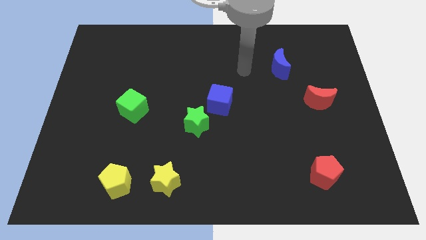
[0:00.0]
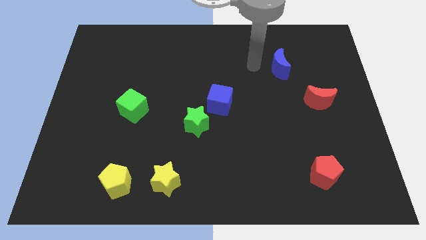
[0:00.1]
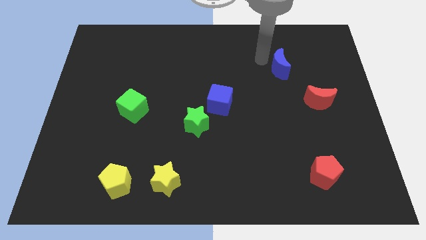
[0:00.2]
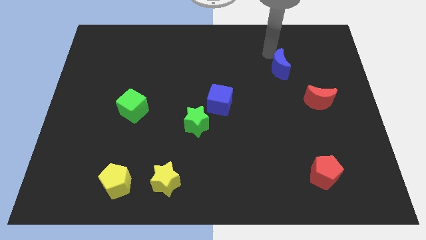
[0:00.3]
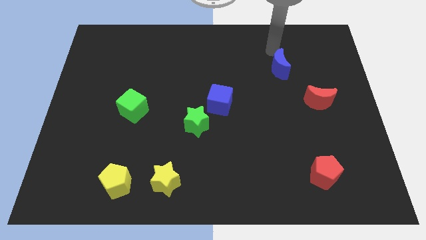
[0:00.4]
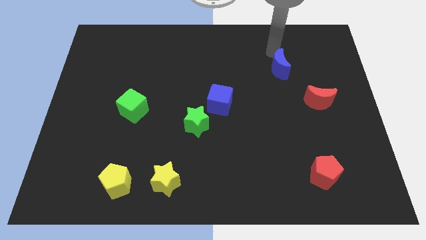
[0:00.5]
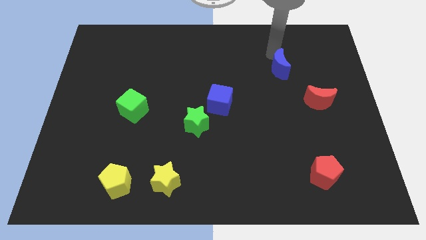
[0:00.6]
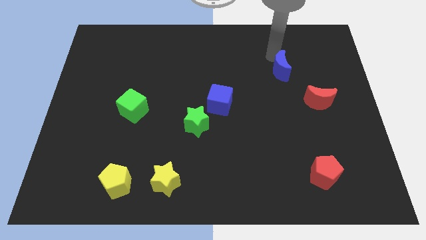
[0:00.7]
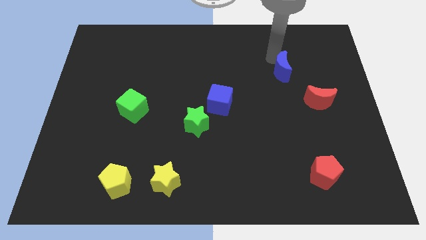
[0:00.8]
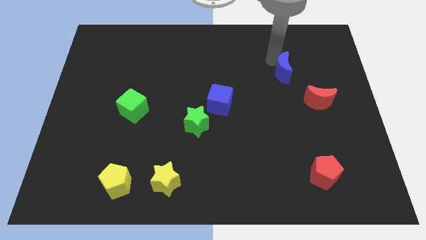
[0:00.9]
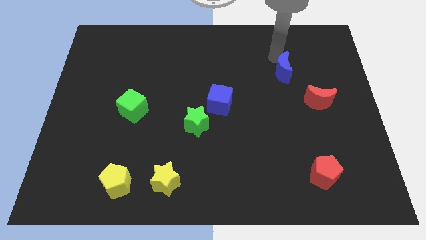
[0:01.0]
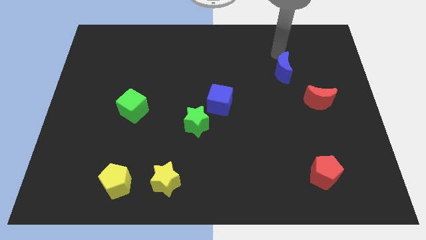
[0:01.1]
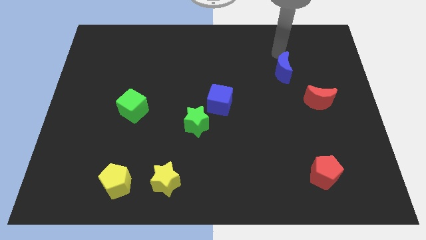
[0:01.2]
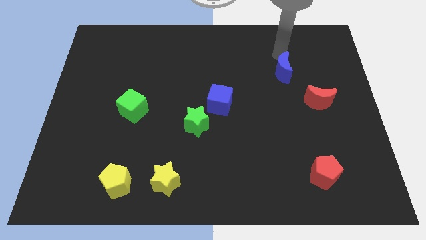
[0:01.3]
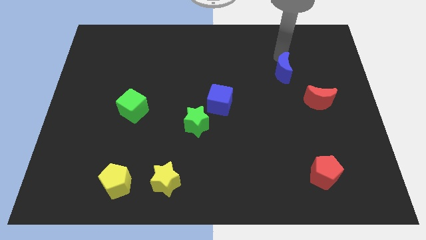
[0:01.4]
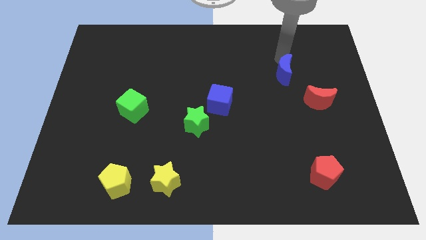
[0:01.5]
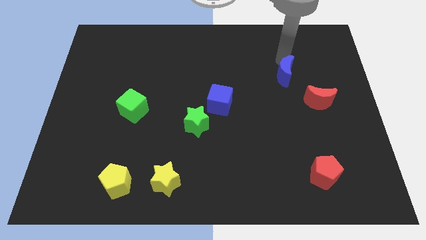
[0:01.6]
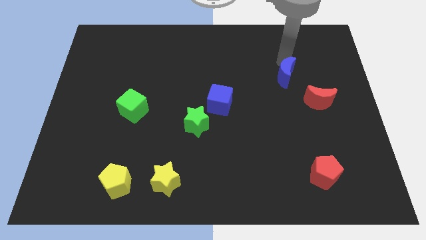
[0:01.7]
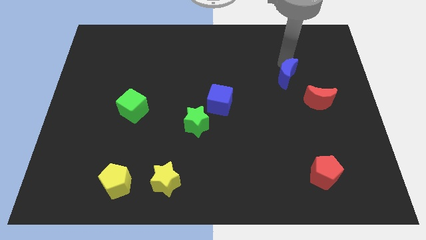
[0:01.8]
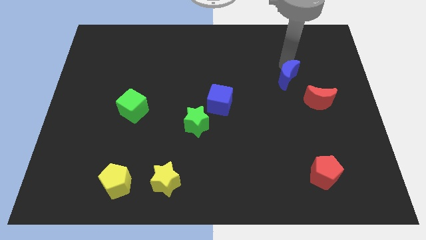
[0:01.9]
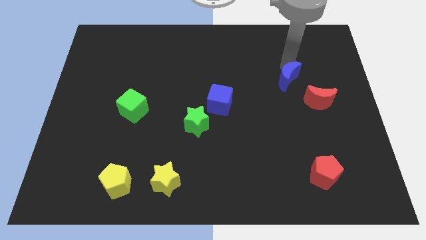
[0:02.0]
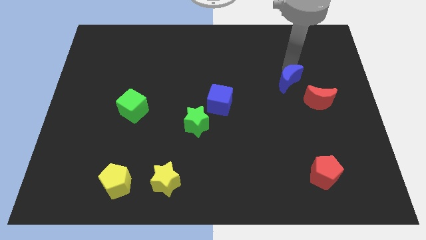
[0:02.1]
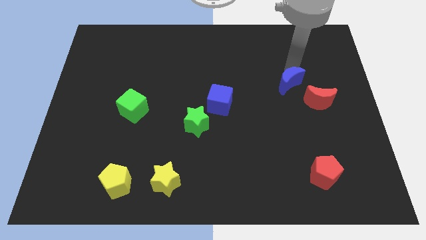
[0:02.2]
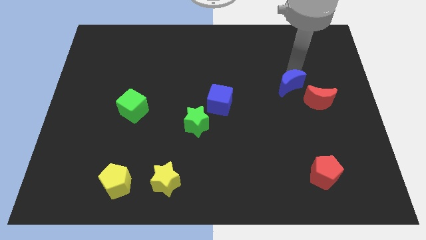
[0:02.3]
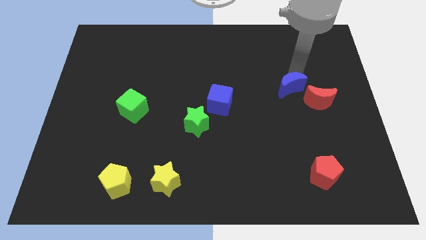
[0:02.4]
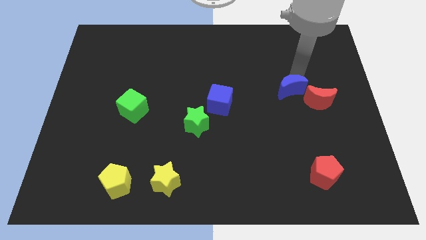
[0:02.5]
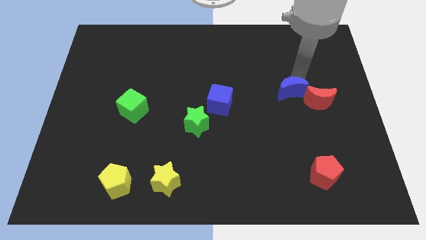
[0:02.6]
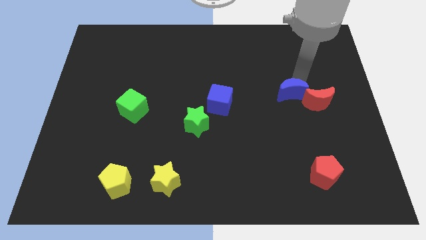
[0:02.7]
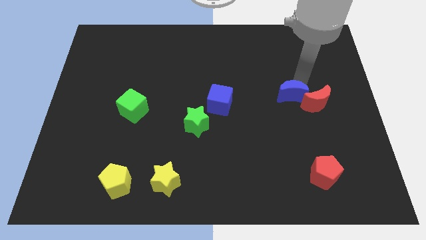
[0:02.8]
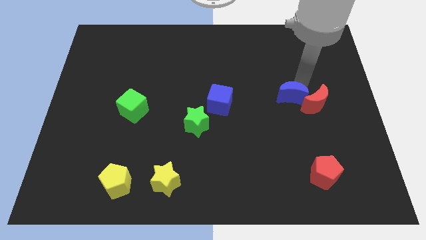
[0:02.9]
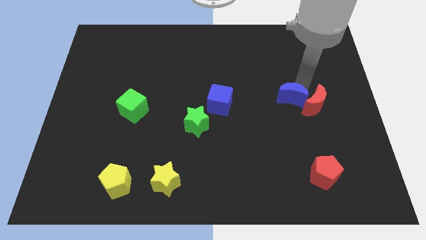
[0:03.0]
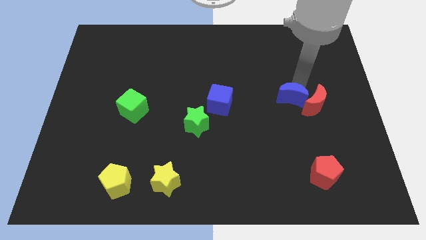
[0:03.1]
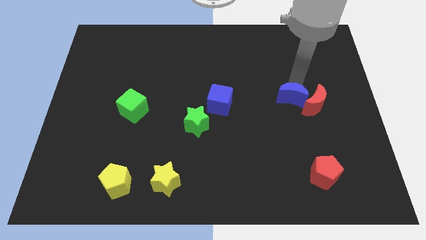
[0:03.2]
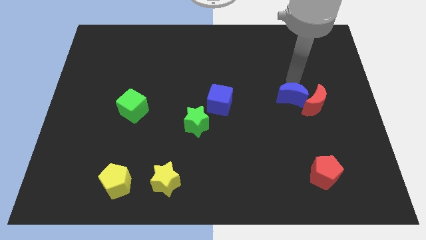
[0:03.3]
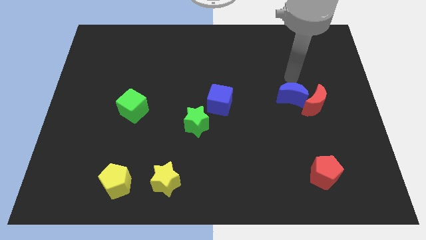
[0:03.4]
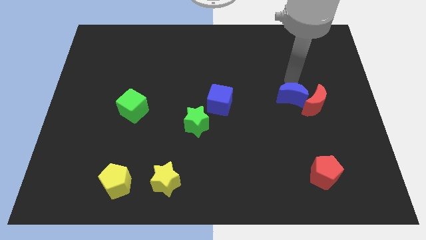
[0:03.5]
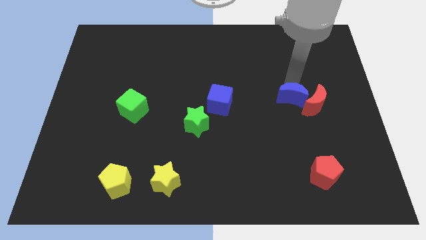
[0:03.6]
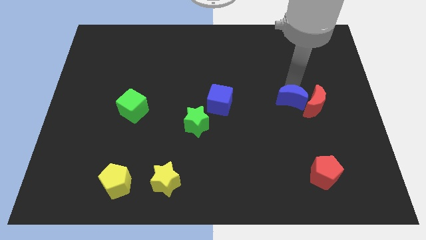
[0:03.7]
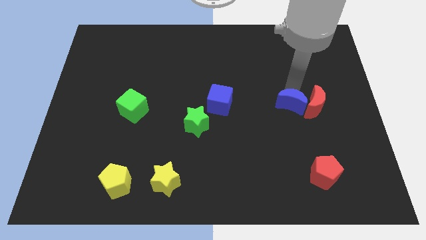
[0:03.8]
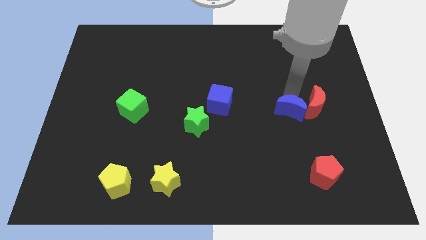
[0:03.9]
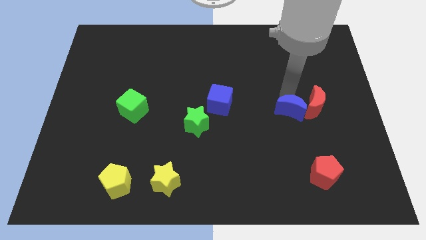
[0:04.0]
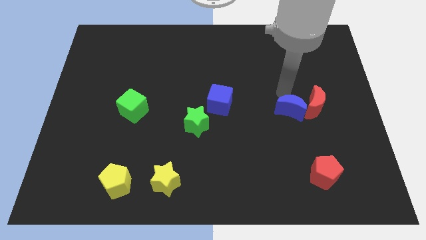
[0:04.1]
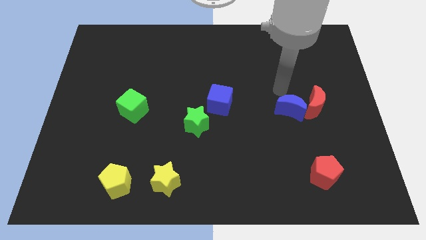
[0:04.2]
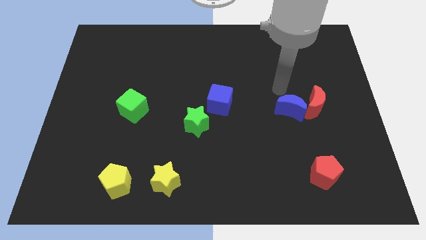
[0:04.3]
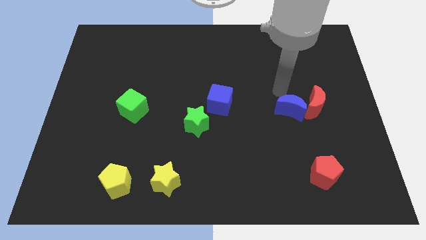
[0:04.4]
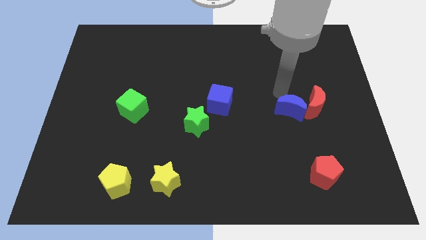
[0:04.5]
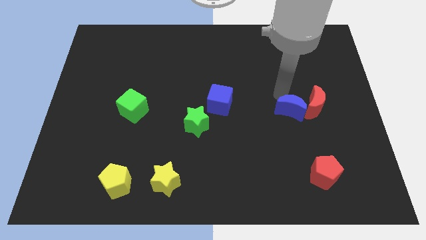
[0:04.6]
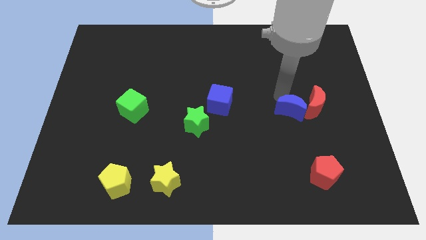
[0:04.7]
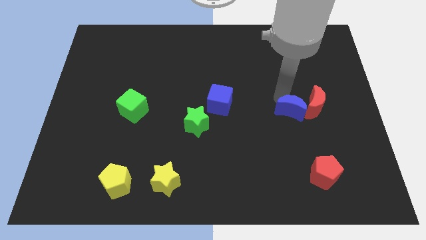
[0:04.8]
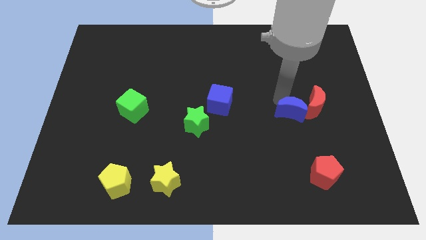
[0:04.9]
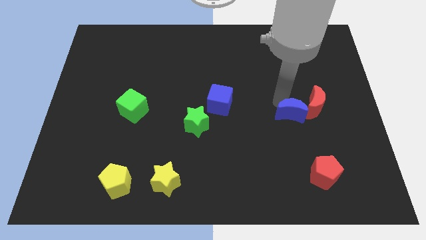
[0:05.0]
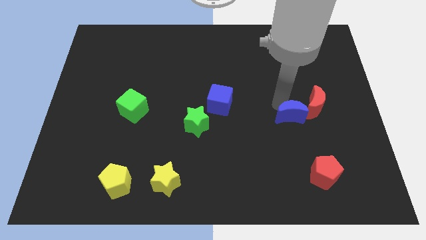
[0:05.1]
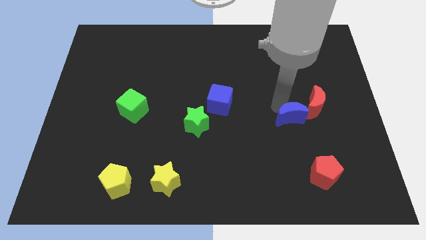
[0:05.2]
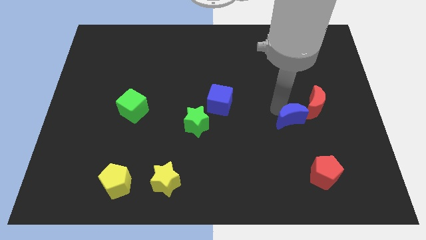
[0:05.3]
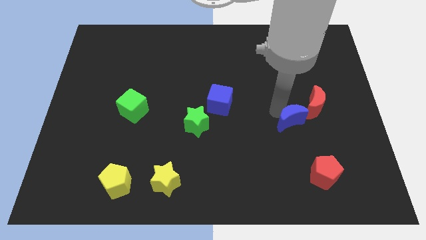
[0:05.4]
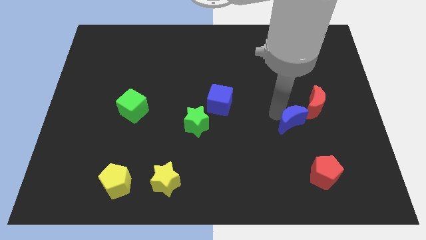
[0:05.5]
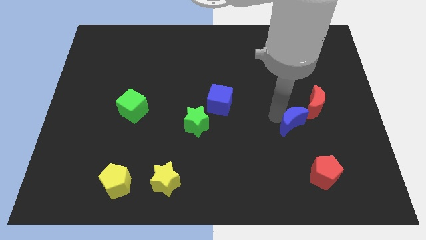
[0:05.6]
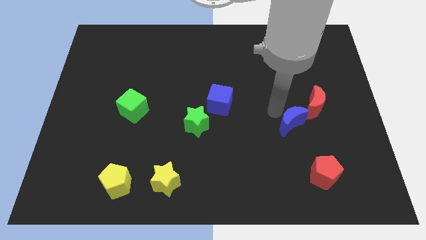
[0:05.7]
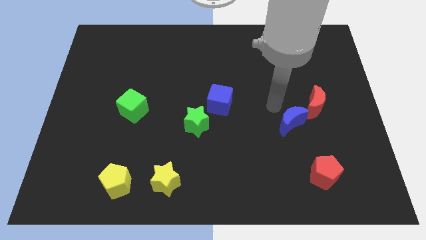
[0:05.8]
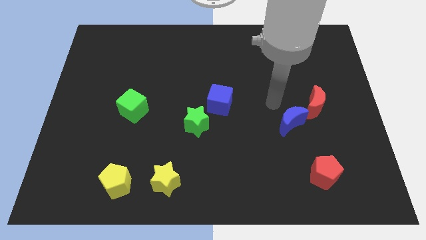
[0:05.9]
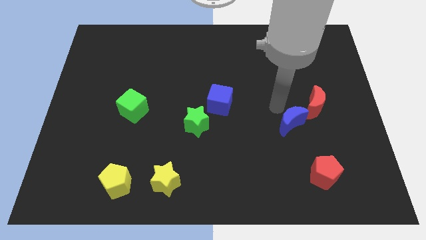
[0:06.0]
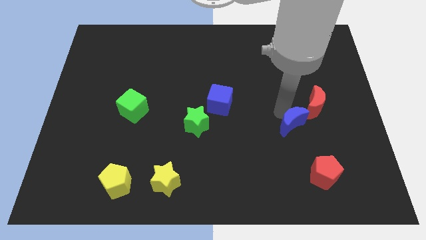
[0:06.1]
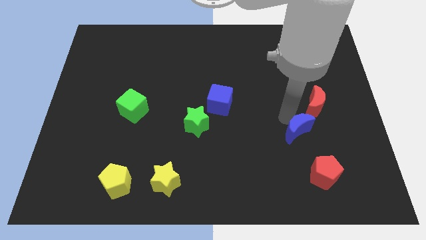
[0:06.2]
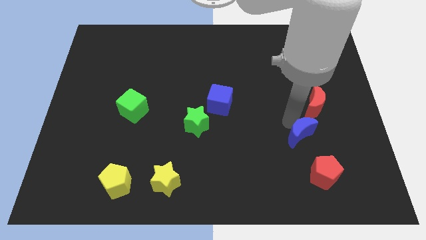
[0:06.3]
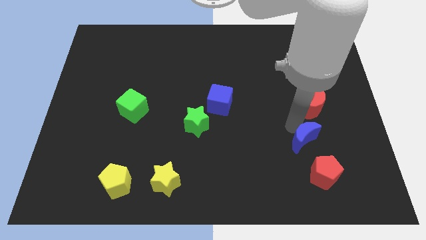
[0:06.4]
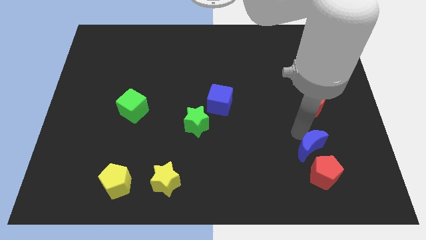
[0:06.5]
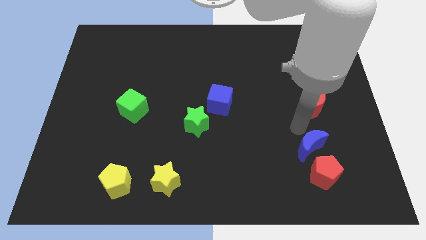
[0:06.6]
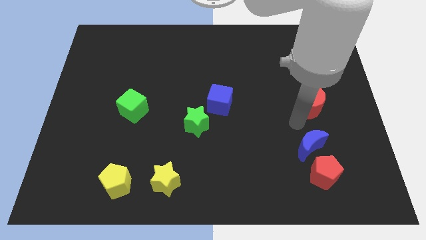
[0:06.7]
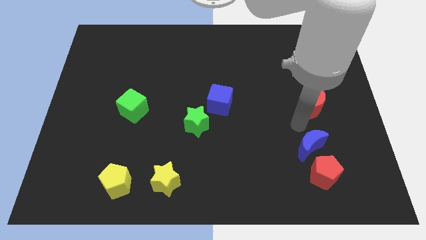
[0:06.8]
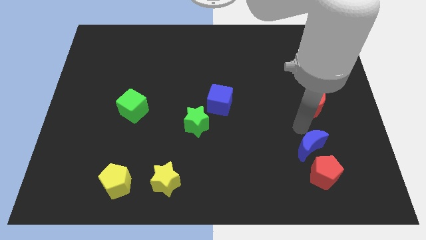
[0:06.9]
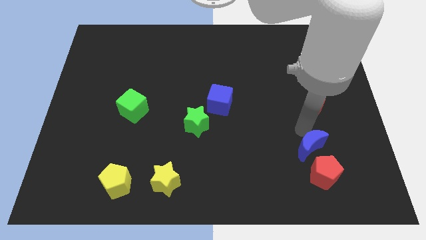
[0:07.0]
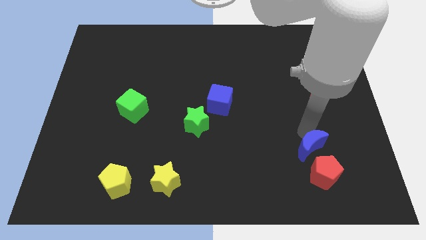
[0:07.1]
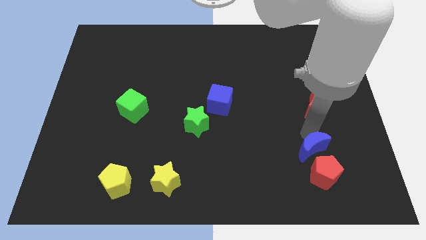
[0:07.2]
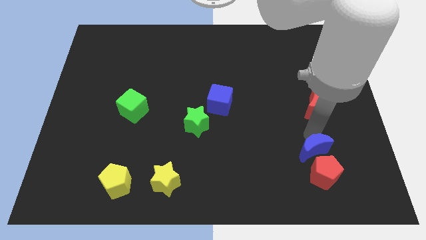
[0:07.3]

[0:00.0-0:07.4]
push the blue moon to the red pentagon

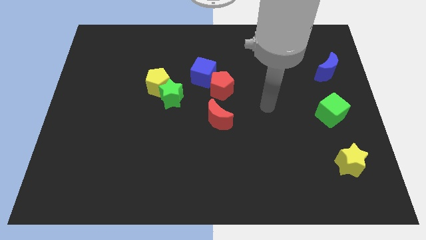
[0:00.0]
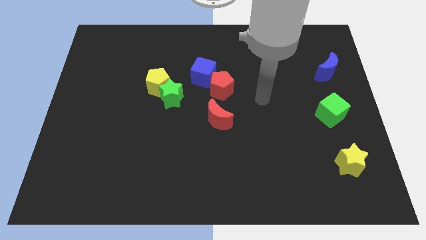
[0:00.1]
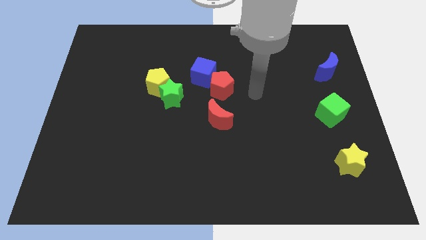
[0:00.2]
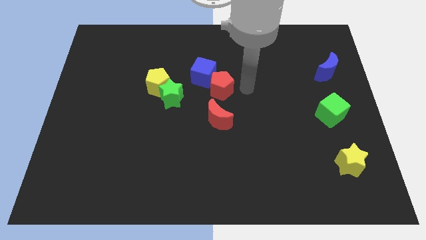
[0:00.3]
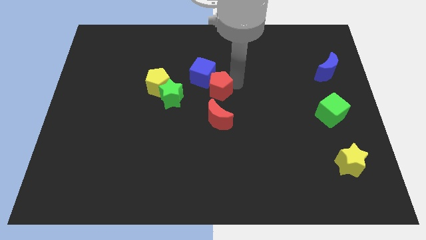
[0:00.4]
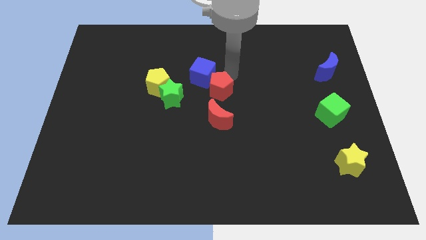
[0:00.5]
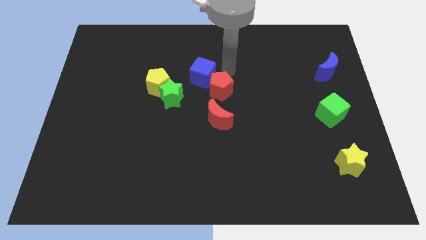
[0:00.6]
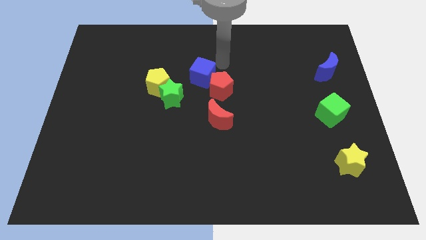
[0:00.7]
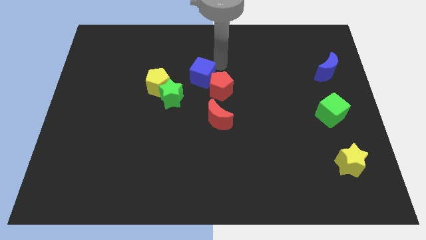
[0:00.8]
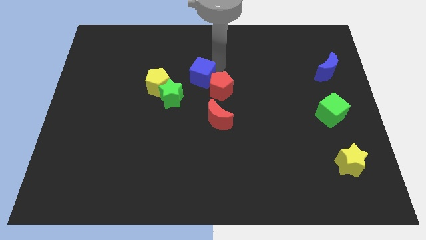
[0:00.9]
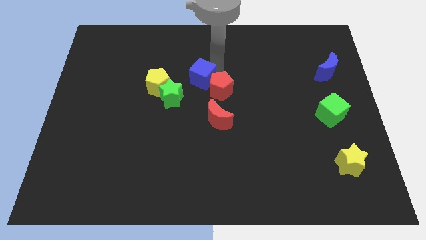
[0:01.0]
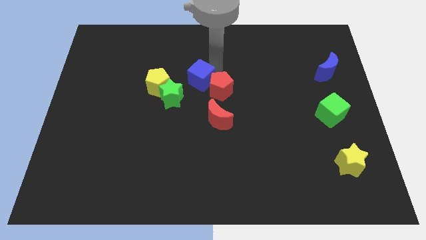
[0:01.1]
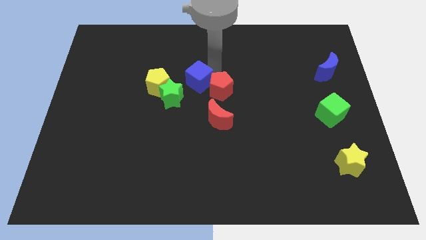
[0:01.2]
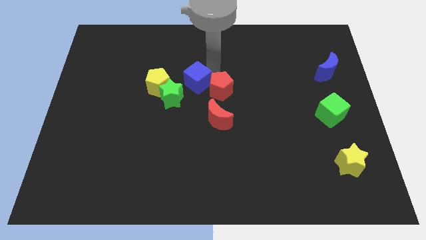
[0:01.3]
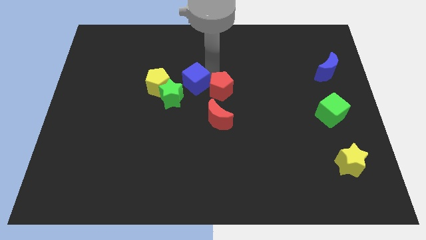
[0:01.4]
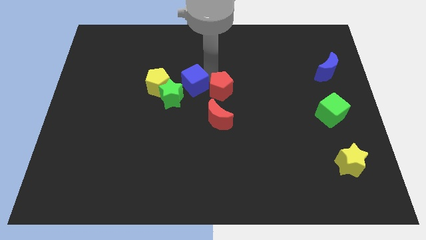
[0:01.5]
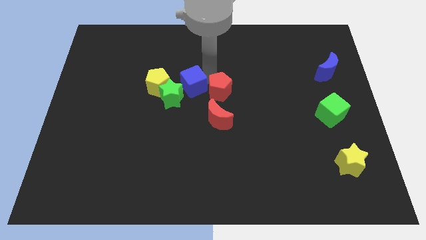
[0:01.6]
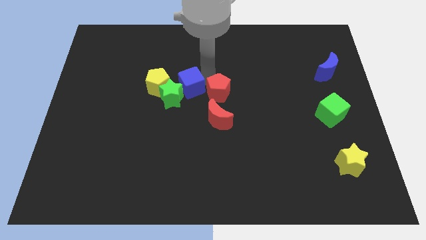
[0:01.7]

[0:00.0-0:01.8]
push the blue cube next to the green star
